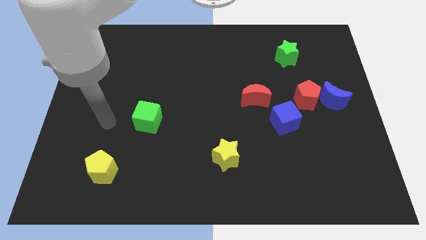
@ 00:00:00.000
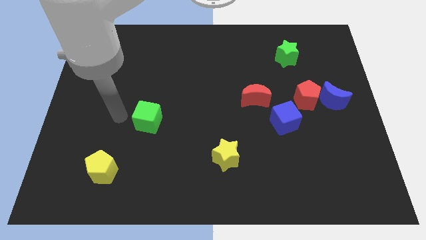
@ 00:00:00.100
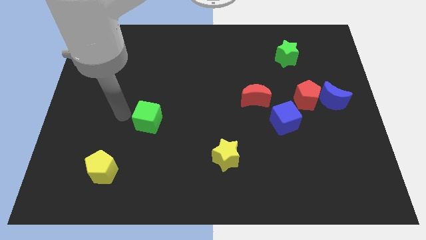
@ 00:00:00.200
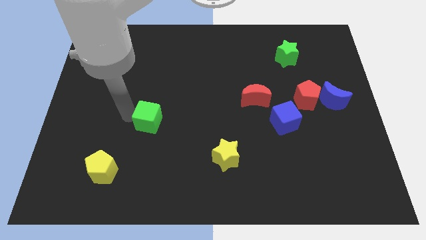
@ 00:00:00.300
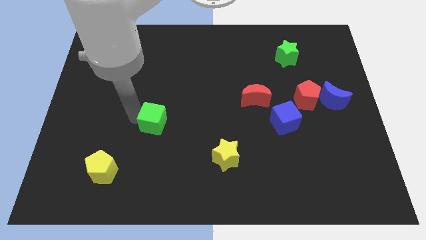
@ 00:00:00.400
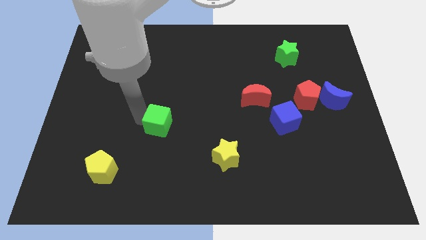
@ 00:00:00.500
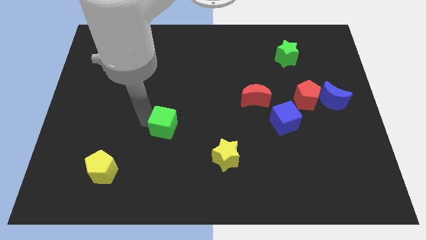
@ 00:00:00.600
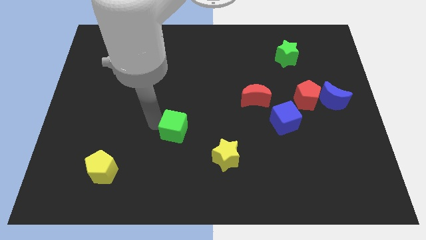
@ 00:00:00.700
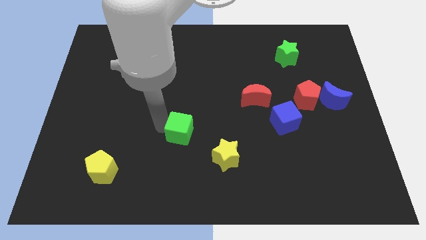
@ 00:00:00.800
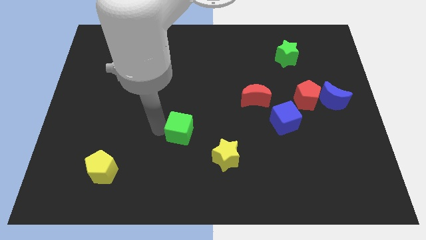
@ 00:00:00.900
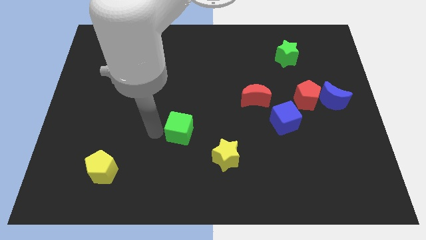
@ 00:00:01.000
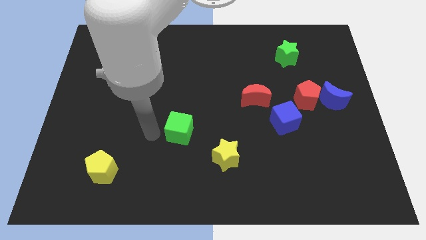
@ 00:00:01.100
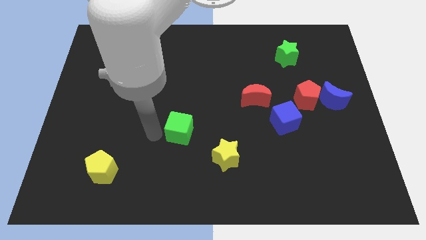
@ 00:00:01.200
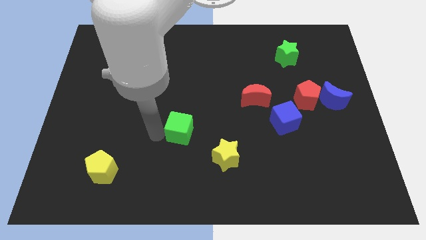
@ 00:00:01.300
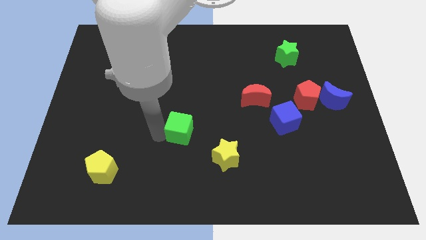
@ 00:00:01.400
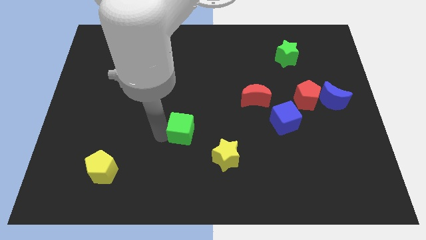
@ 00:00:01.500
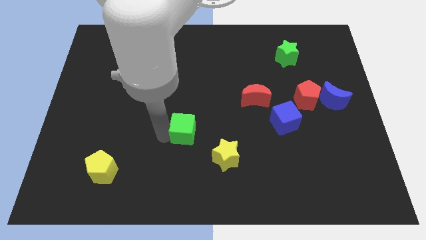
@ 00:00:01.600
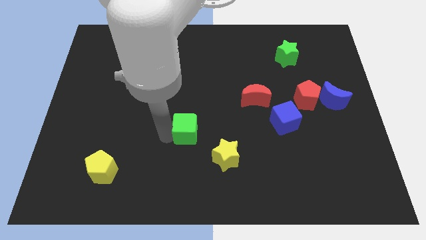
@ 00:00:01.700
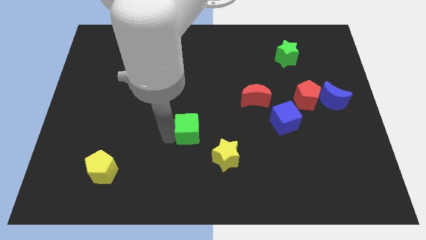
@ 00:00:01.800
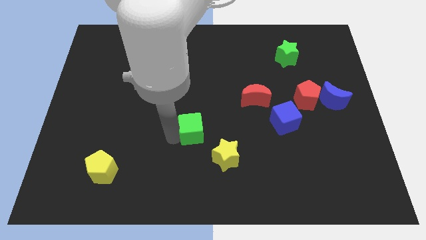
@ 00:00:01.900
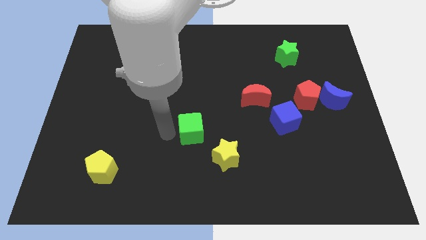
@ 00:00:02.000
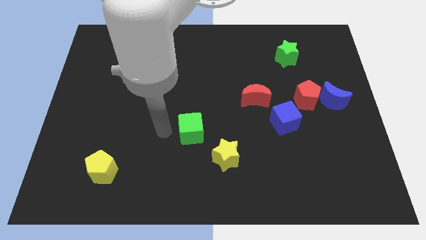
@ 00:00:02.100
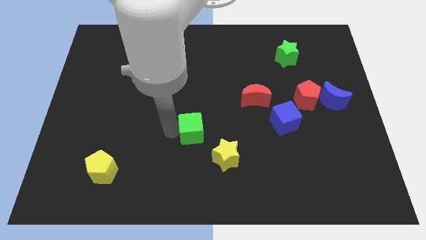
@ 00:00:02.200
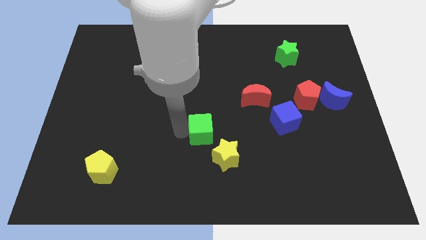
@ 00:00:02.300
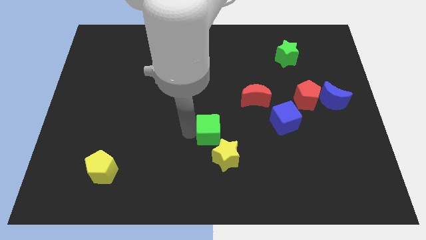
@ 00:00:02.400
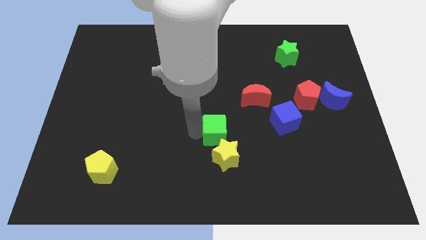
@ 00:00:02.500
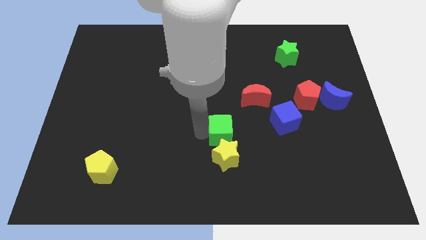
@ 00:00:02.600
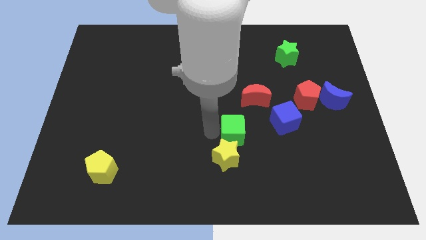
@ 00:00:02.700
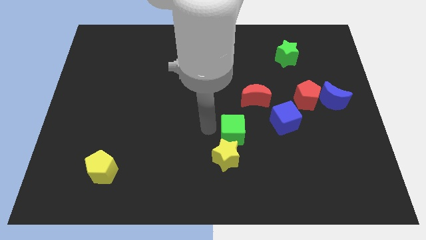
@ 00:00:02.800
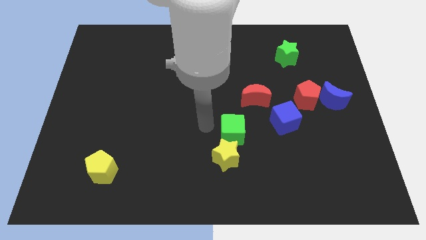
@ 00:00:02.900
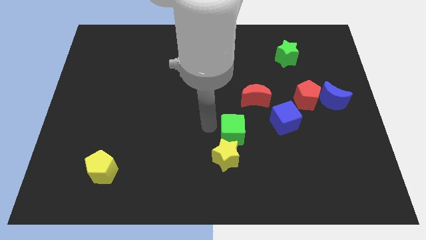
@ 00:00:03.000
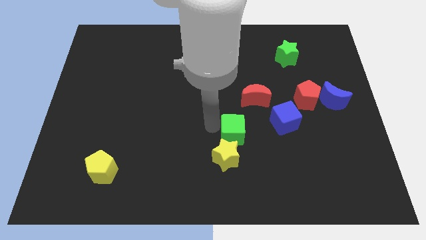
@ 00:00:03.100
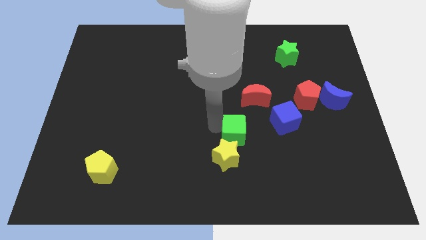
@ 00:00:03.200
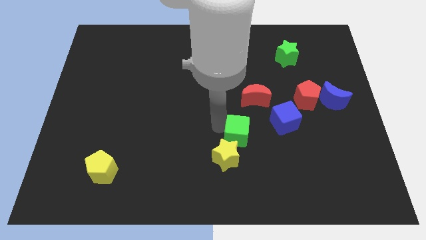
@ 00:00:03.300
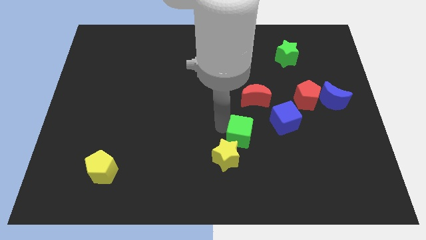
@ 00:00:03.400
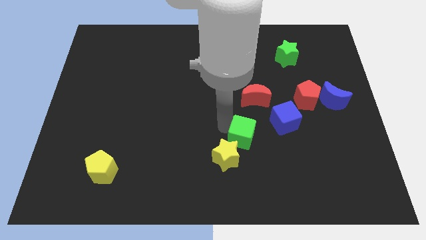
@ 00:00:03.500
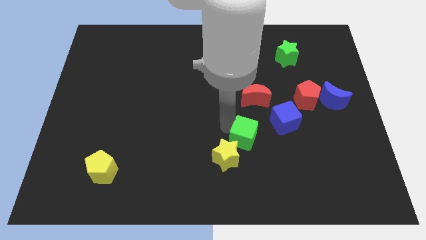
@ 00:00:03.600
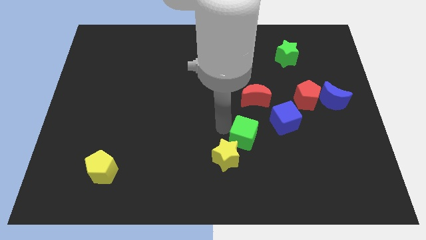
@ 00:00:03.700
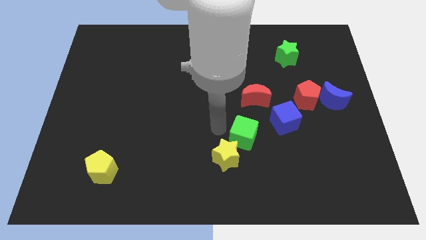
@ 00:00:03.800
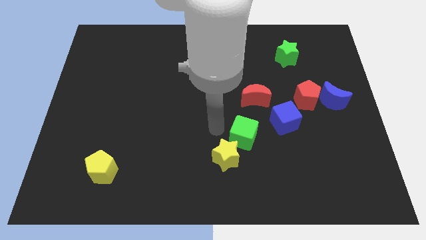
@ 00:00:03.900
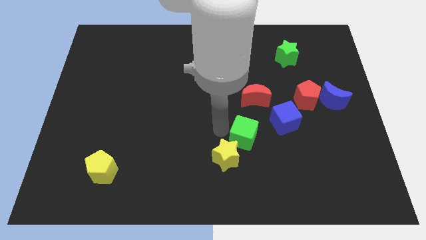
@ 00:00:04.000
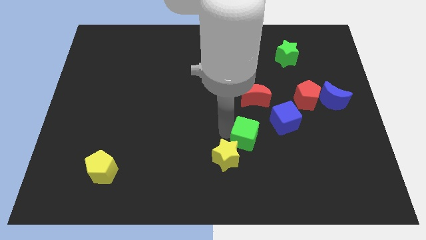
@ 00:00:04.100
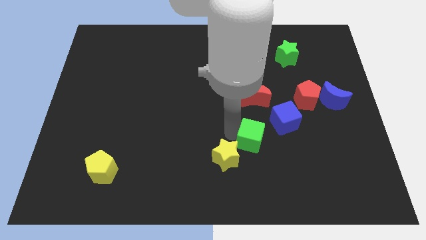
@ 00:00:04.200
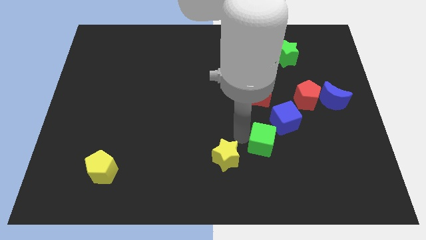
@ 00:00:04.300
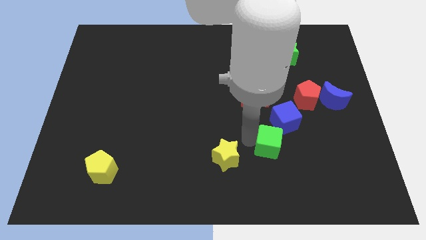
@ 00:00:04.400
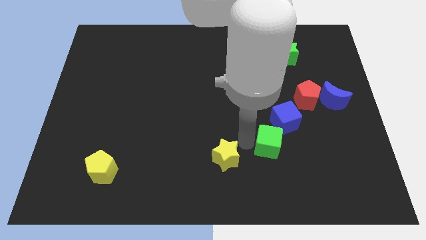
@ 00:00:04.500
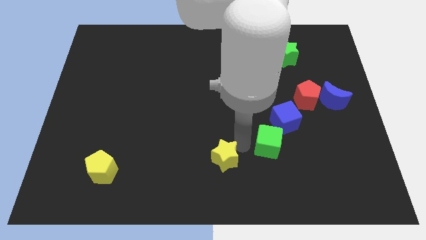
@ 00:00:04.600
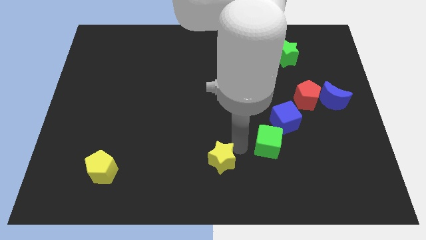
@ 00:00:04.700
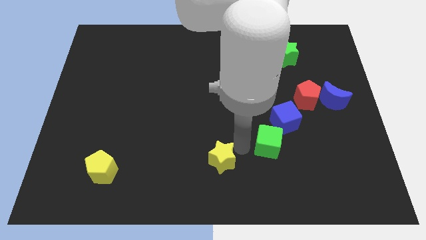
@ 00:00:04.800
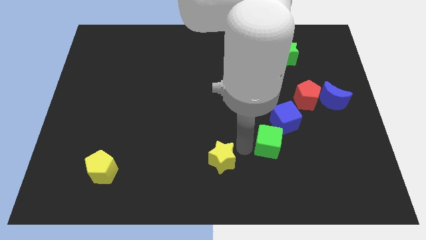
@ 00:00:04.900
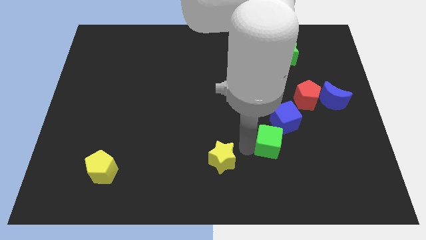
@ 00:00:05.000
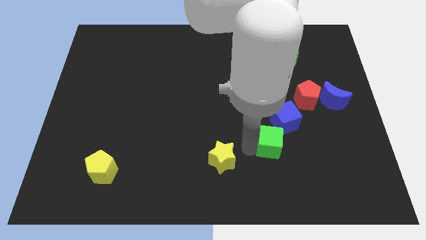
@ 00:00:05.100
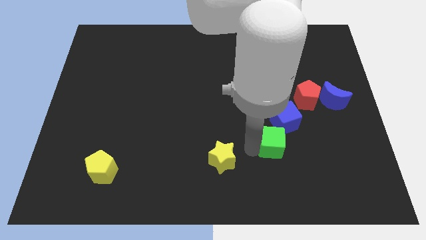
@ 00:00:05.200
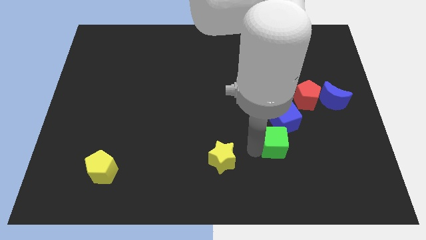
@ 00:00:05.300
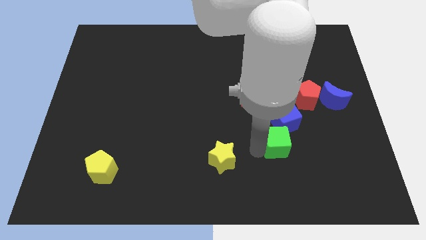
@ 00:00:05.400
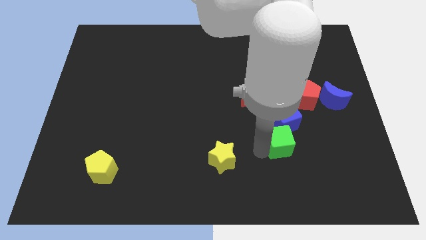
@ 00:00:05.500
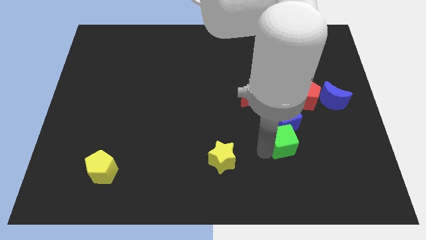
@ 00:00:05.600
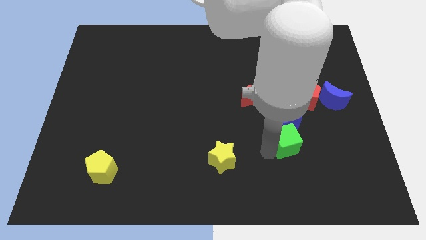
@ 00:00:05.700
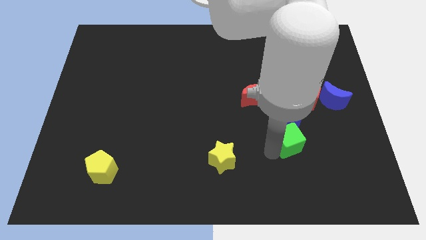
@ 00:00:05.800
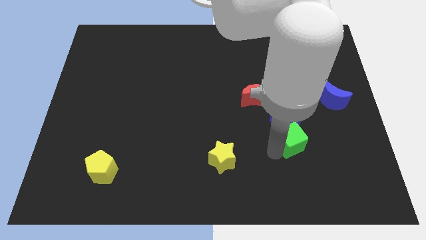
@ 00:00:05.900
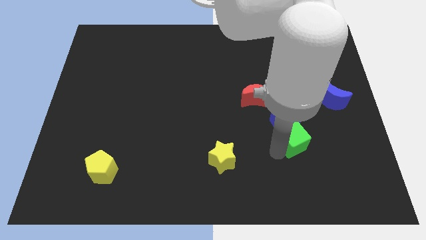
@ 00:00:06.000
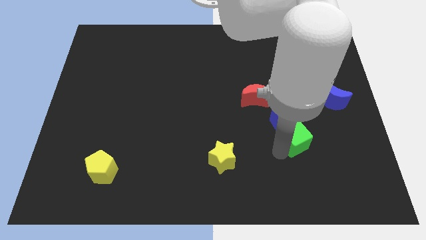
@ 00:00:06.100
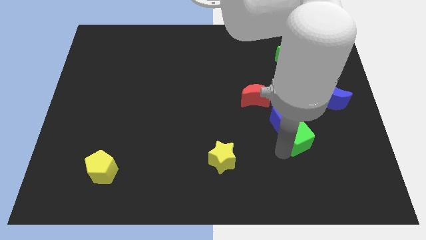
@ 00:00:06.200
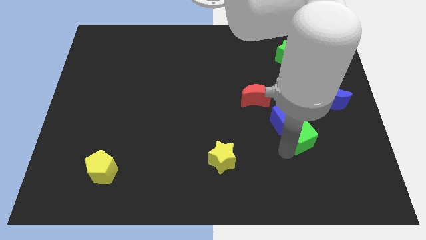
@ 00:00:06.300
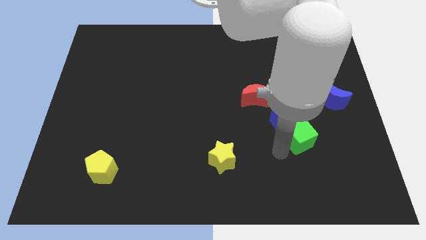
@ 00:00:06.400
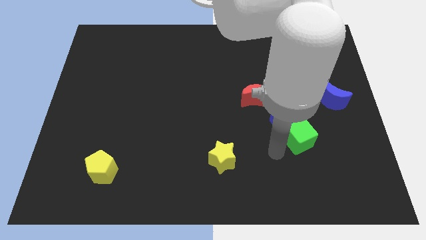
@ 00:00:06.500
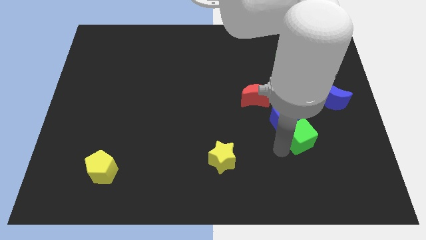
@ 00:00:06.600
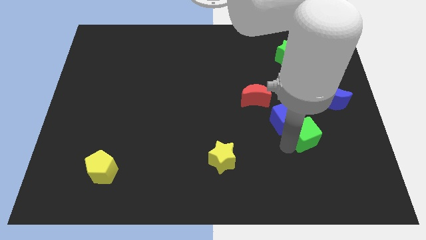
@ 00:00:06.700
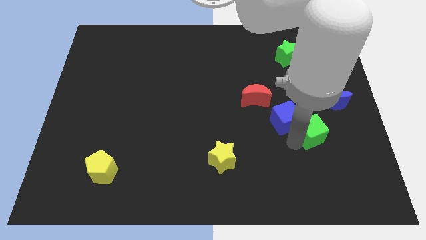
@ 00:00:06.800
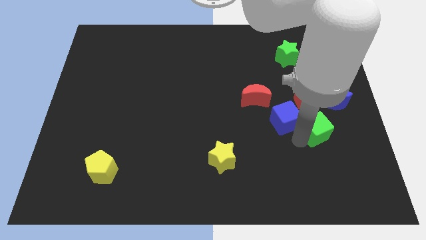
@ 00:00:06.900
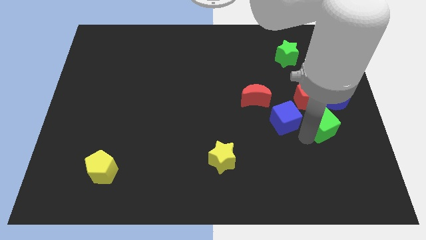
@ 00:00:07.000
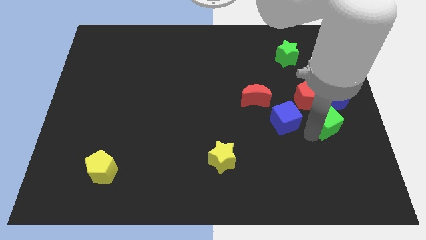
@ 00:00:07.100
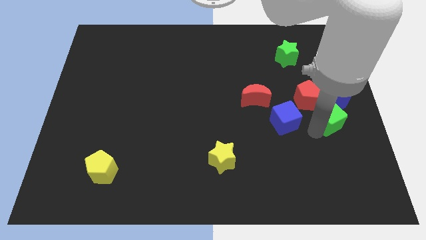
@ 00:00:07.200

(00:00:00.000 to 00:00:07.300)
push the green cube to the right side
